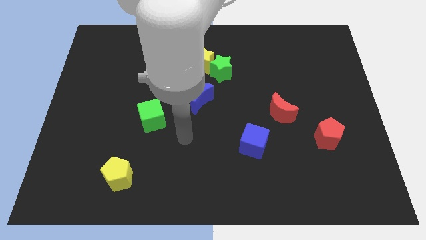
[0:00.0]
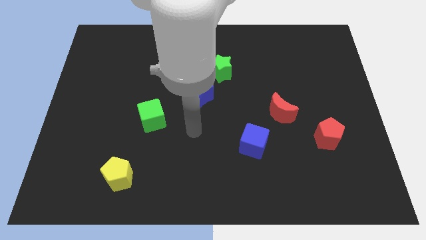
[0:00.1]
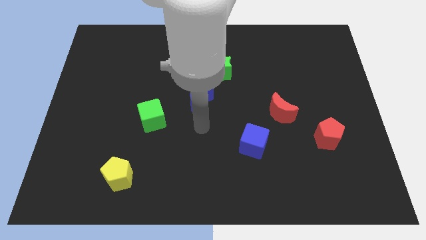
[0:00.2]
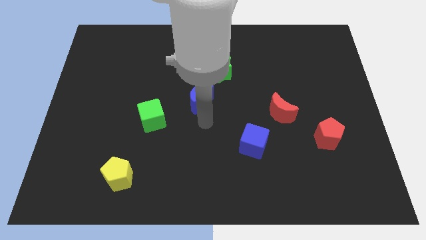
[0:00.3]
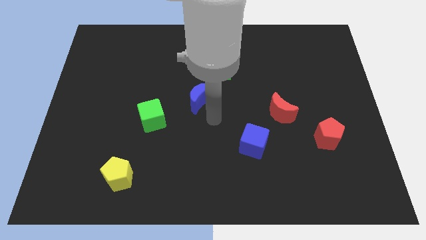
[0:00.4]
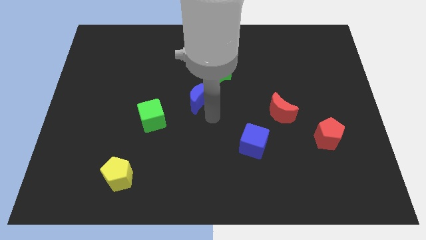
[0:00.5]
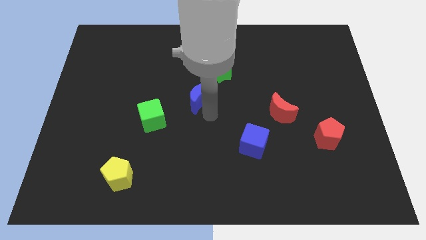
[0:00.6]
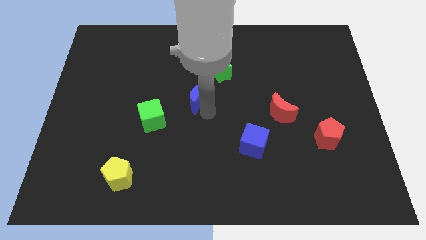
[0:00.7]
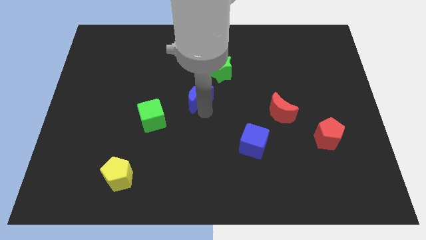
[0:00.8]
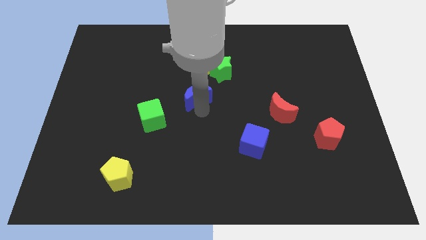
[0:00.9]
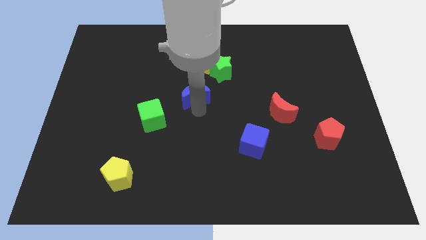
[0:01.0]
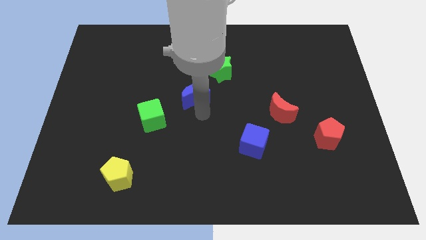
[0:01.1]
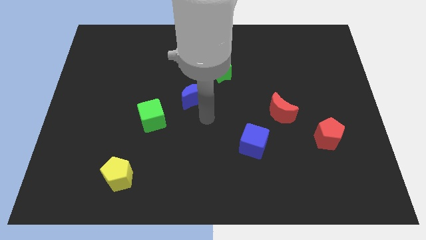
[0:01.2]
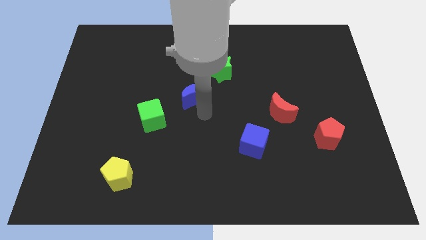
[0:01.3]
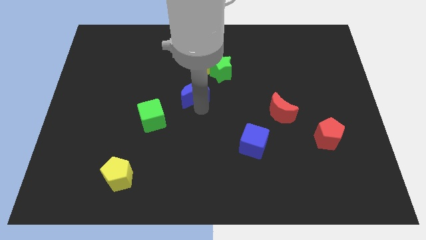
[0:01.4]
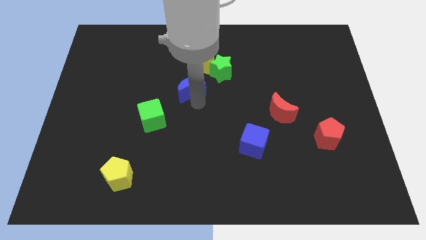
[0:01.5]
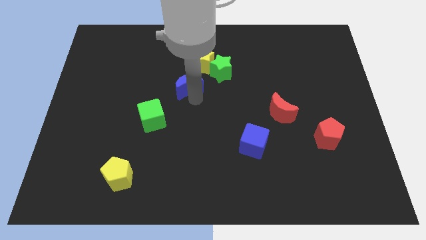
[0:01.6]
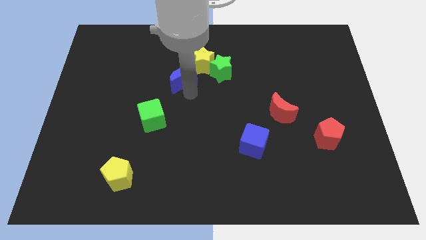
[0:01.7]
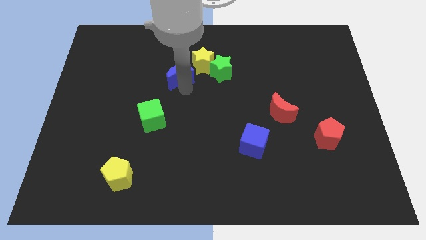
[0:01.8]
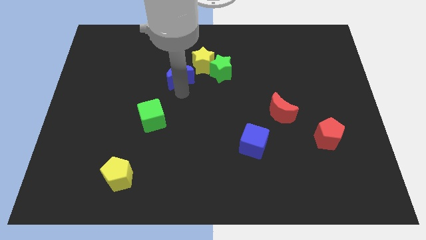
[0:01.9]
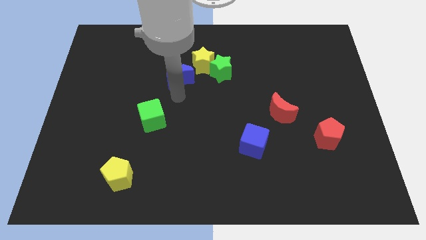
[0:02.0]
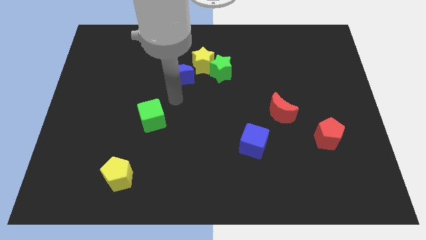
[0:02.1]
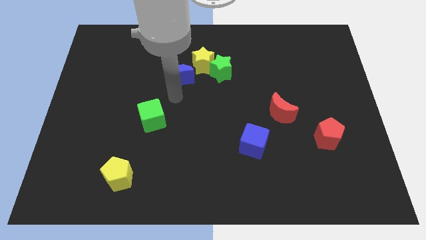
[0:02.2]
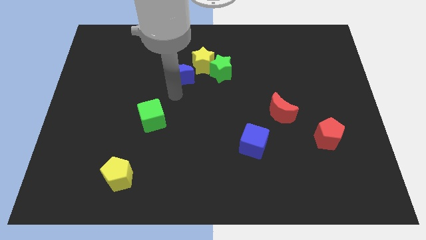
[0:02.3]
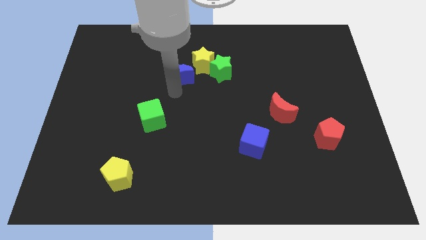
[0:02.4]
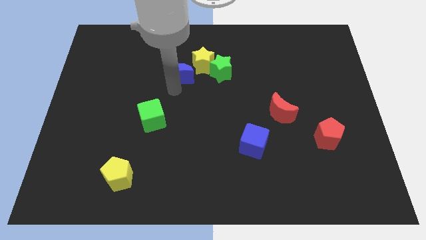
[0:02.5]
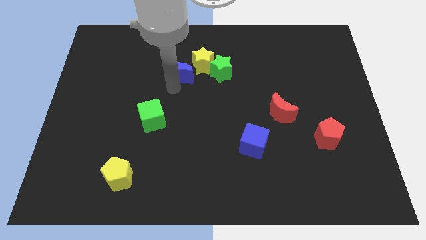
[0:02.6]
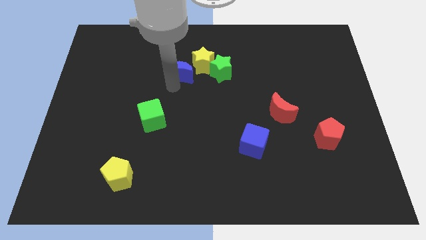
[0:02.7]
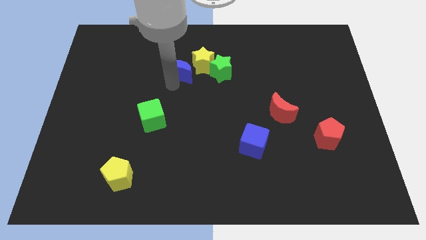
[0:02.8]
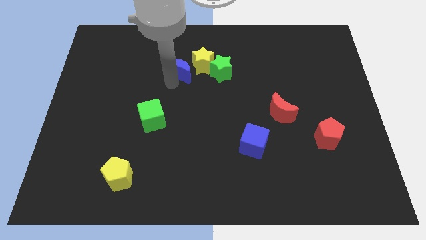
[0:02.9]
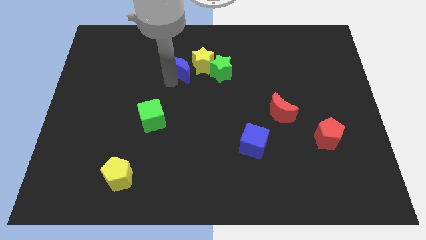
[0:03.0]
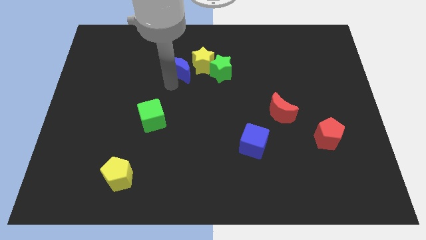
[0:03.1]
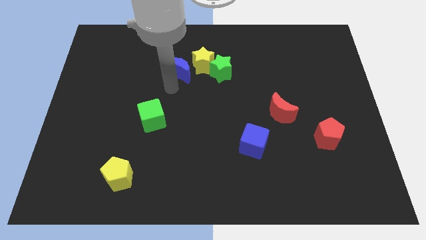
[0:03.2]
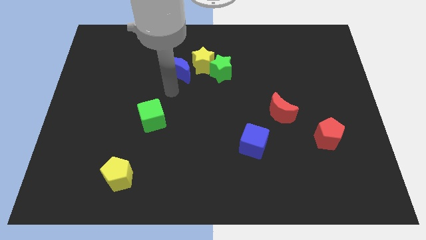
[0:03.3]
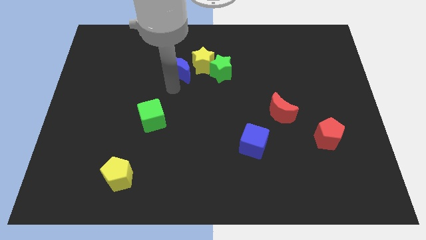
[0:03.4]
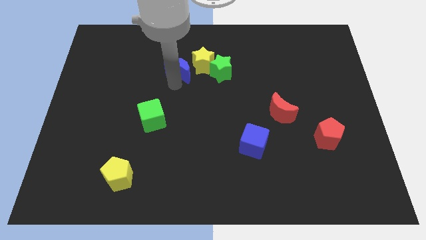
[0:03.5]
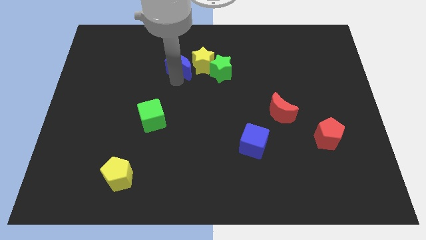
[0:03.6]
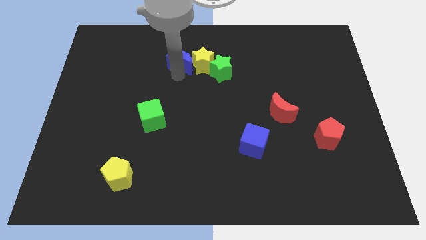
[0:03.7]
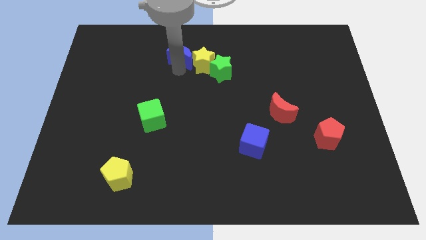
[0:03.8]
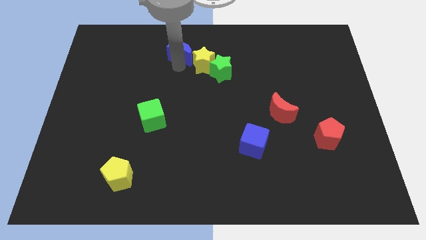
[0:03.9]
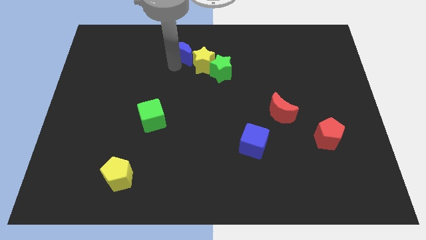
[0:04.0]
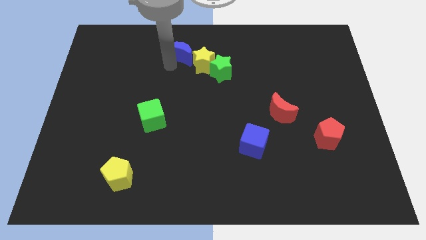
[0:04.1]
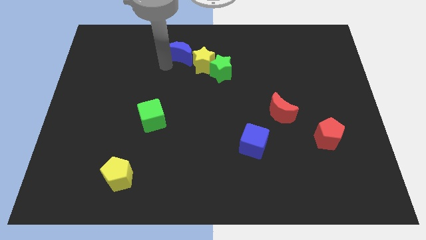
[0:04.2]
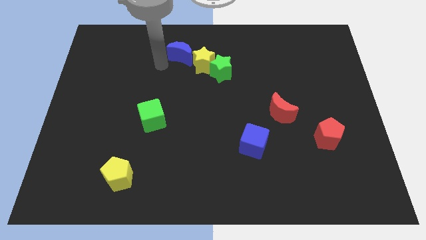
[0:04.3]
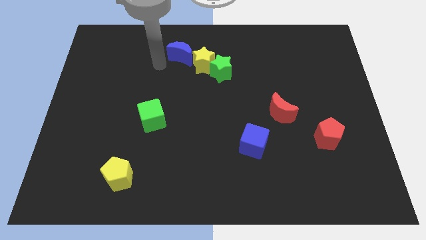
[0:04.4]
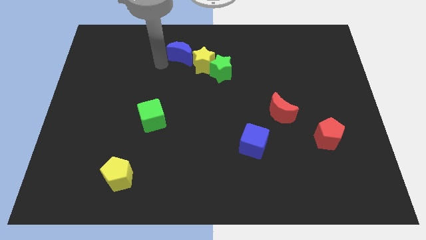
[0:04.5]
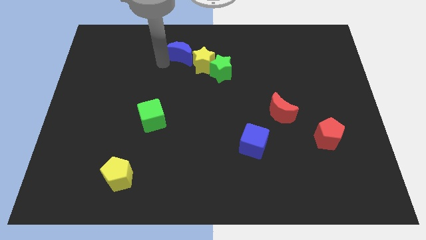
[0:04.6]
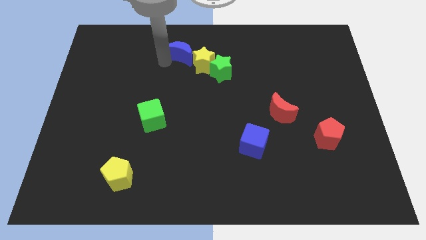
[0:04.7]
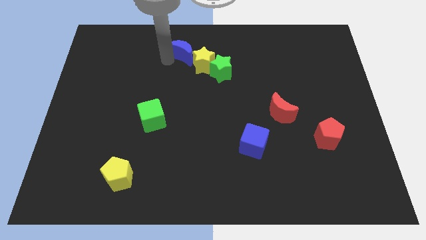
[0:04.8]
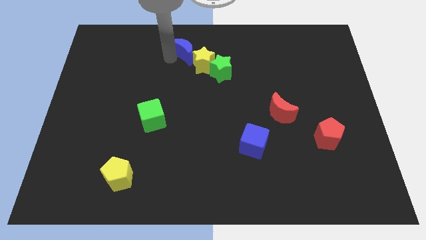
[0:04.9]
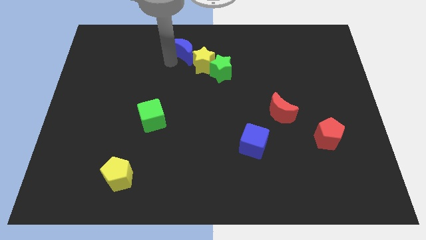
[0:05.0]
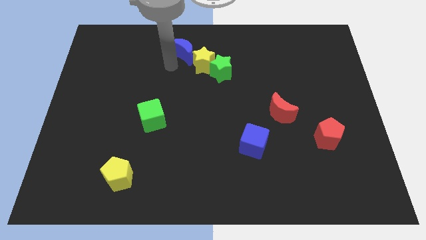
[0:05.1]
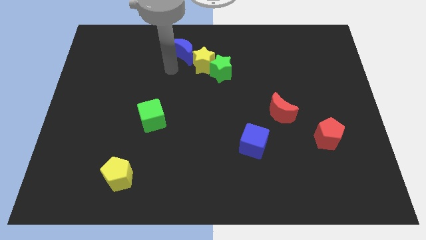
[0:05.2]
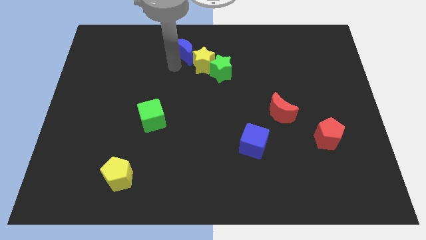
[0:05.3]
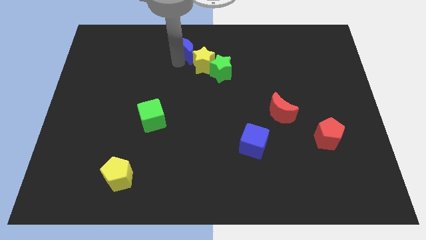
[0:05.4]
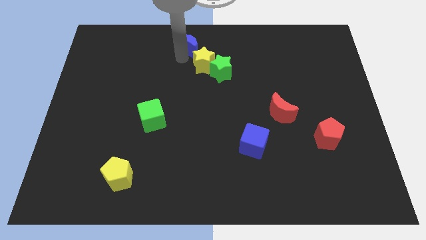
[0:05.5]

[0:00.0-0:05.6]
put the blue moon to the top side

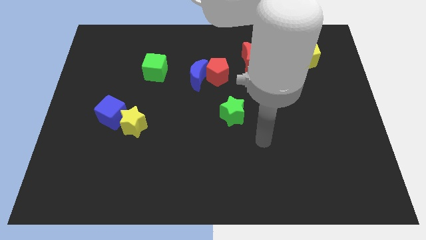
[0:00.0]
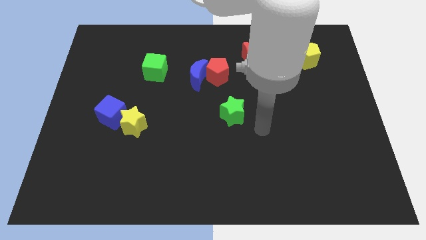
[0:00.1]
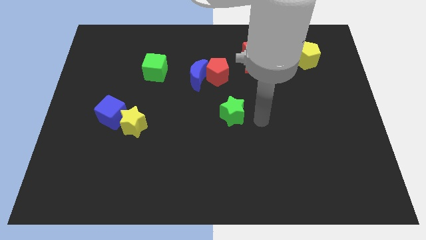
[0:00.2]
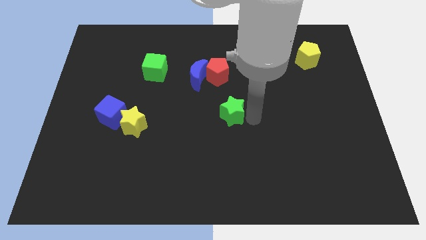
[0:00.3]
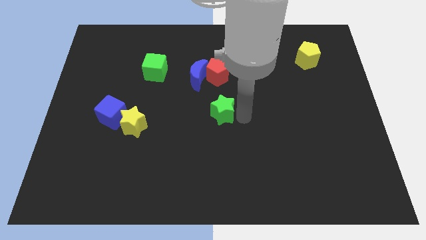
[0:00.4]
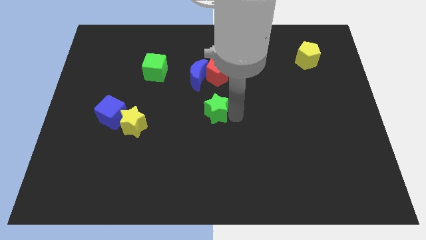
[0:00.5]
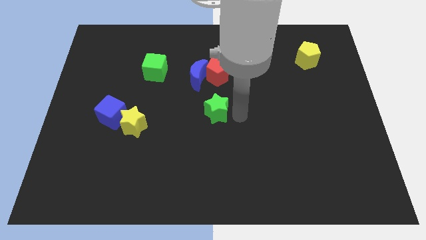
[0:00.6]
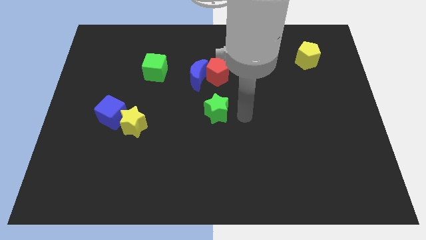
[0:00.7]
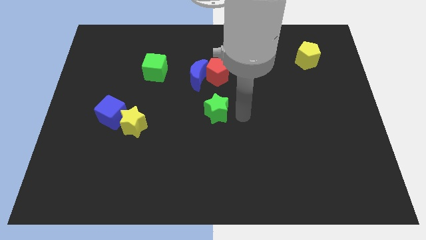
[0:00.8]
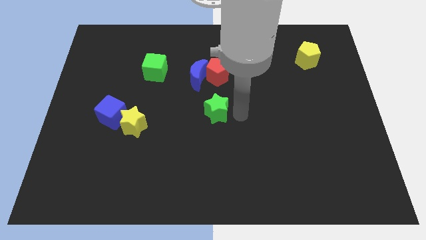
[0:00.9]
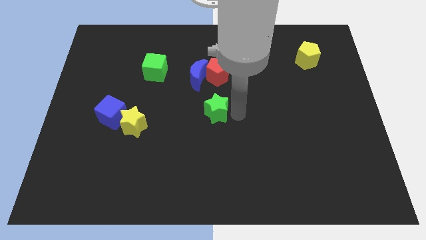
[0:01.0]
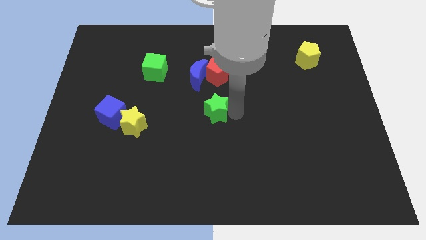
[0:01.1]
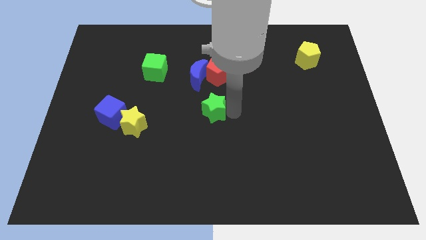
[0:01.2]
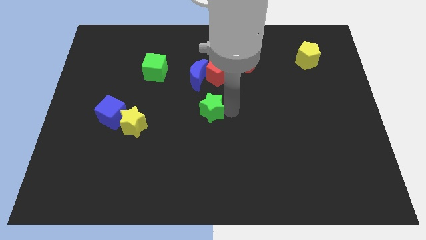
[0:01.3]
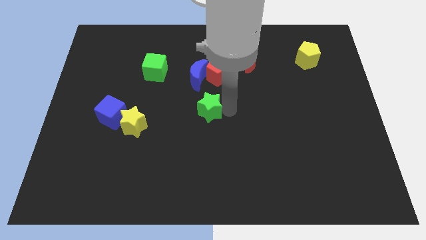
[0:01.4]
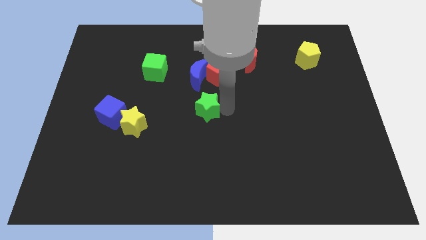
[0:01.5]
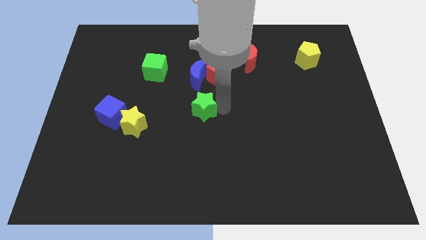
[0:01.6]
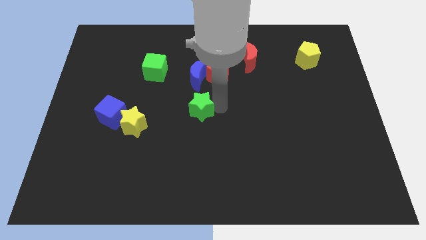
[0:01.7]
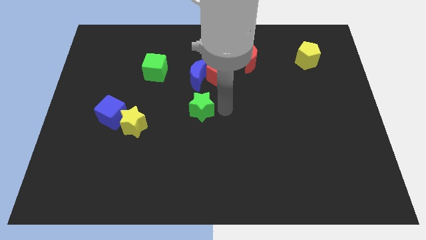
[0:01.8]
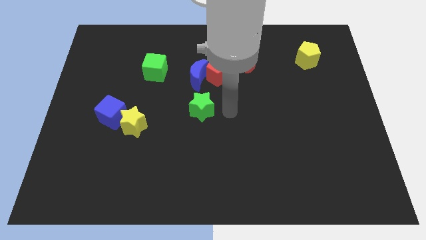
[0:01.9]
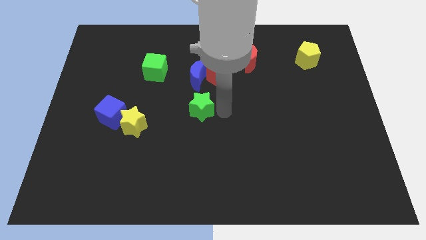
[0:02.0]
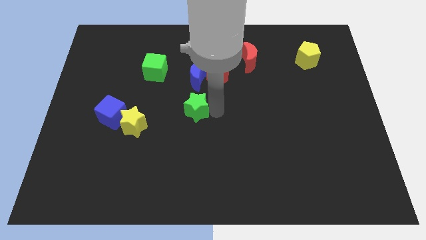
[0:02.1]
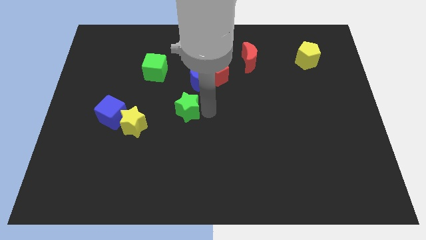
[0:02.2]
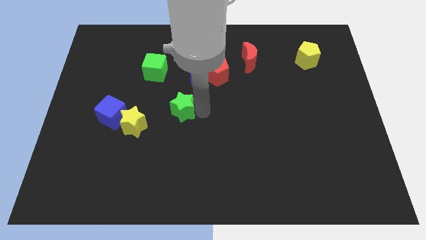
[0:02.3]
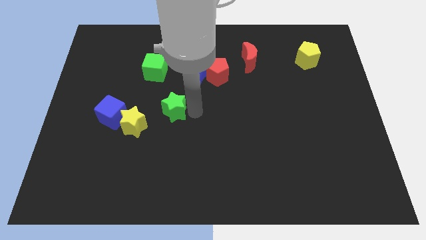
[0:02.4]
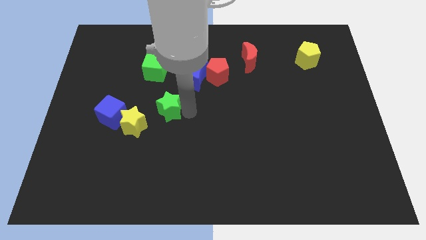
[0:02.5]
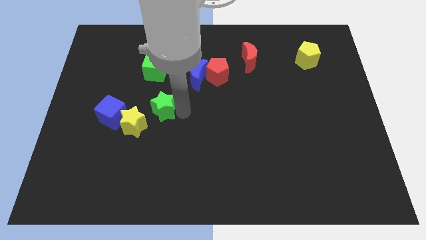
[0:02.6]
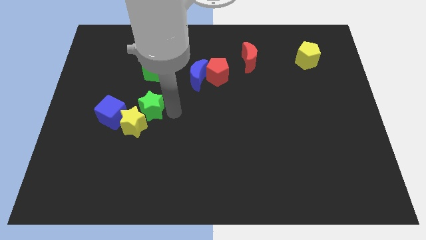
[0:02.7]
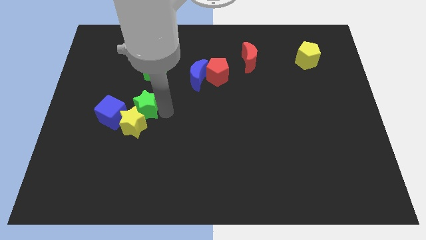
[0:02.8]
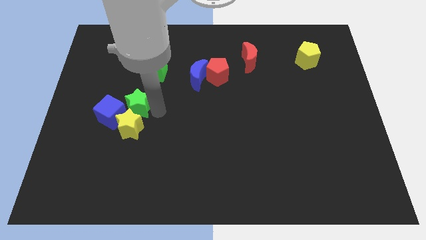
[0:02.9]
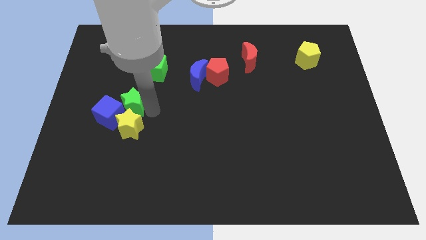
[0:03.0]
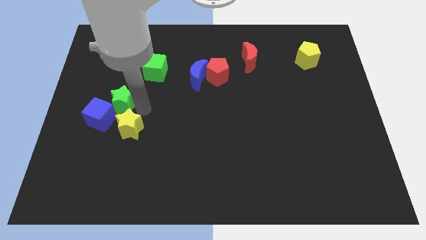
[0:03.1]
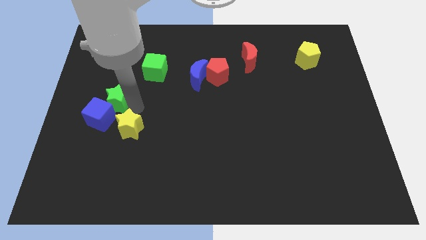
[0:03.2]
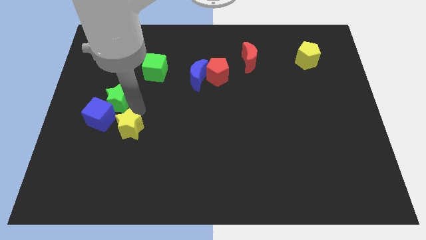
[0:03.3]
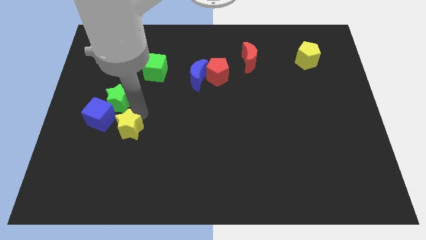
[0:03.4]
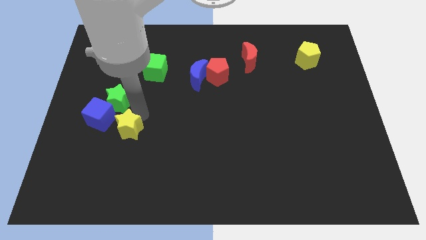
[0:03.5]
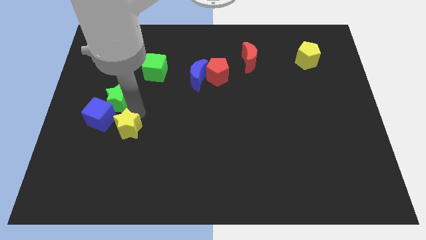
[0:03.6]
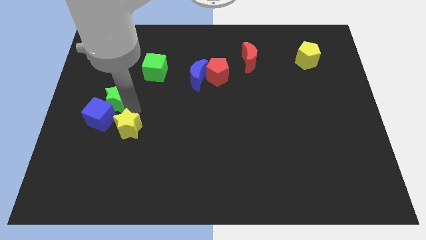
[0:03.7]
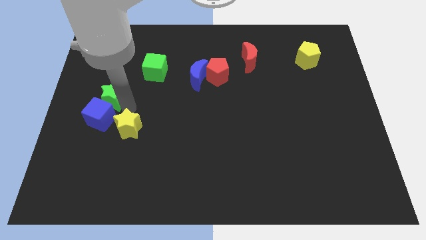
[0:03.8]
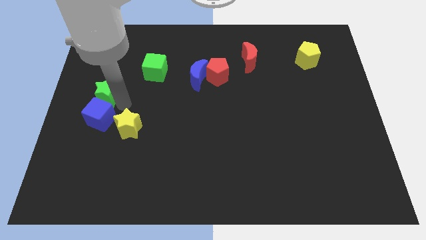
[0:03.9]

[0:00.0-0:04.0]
move the green star to the left side
